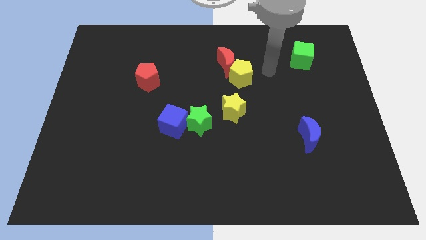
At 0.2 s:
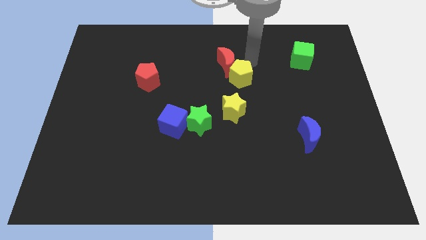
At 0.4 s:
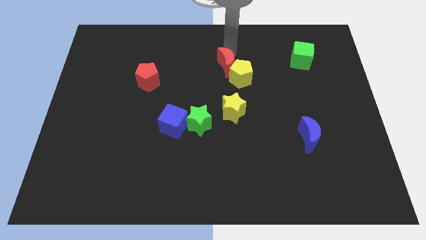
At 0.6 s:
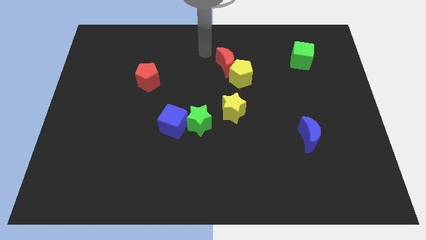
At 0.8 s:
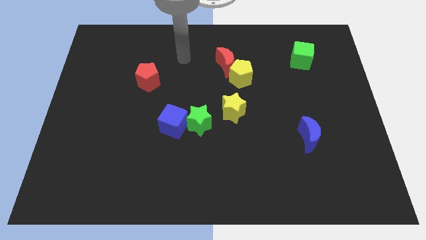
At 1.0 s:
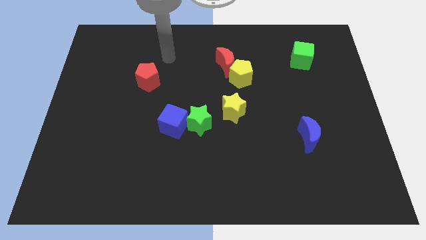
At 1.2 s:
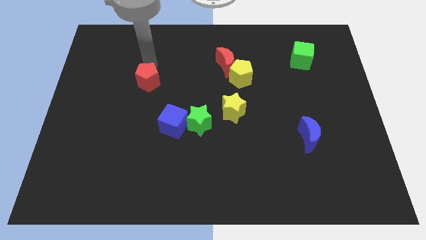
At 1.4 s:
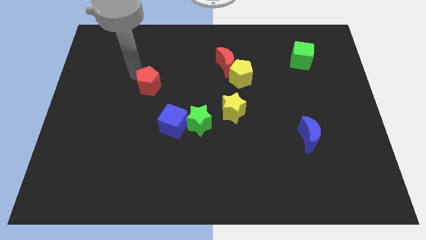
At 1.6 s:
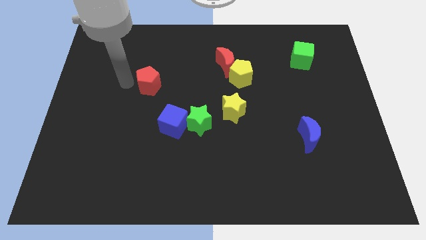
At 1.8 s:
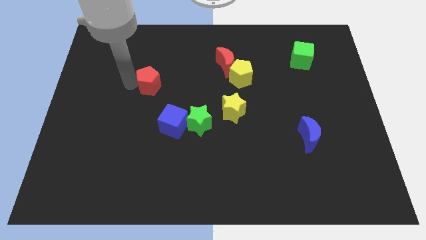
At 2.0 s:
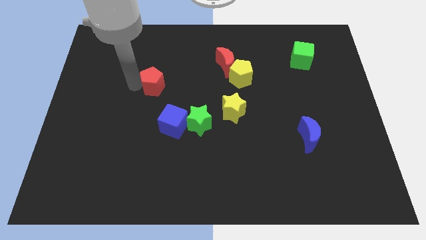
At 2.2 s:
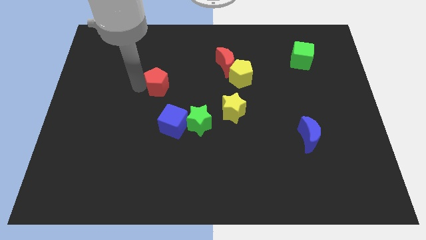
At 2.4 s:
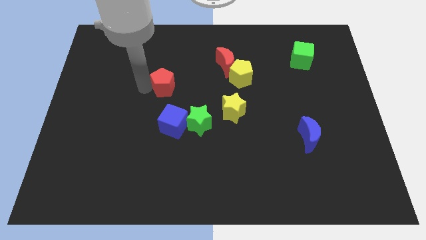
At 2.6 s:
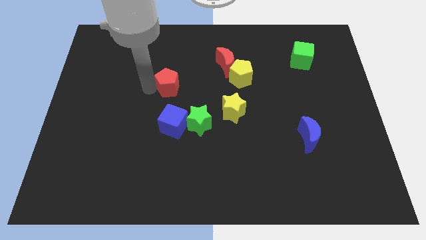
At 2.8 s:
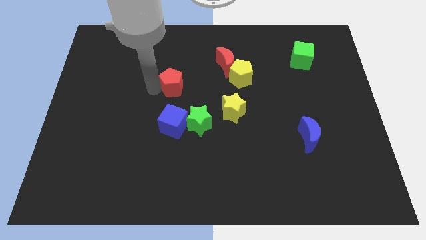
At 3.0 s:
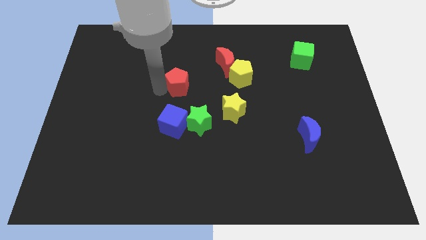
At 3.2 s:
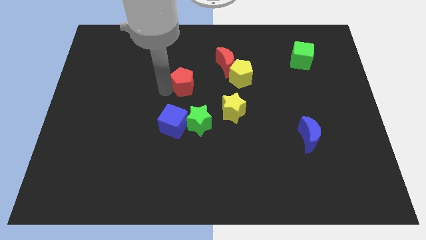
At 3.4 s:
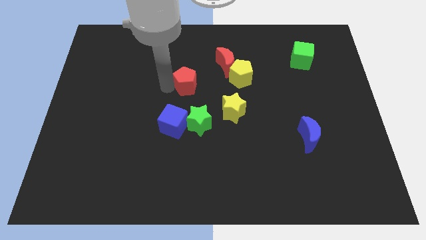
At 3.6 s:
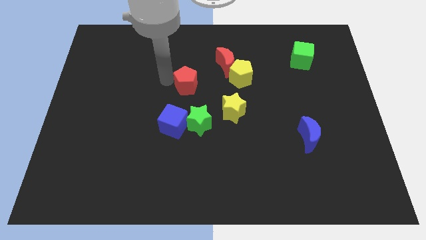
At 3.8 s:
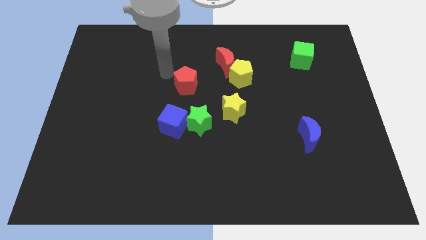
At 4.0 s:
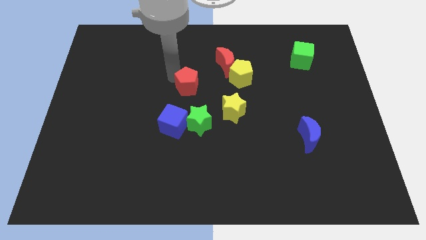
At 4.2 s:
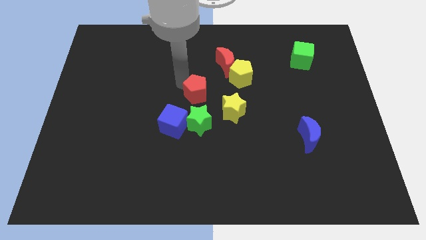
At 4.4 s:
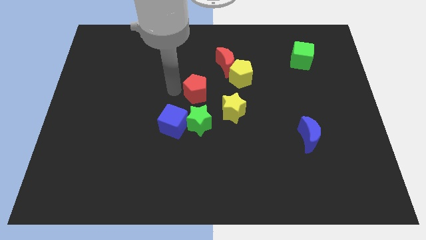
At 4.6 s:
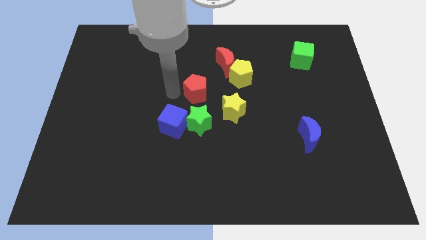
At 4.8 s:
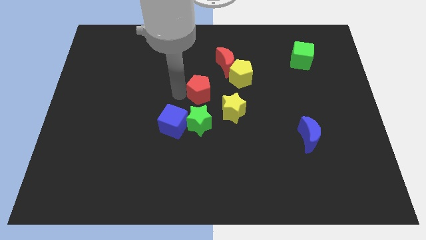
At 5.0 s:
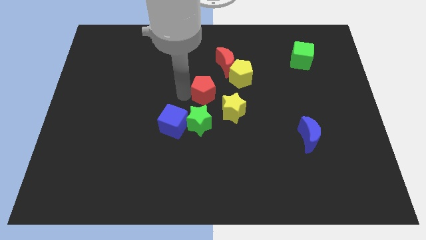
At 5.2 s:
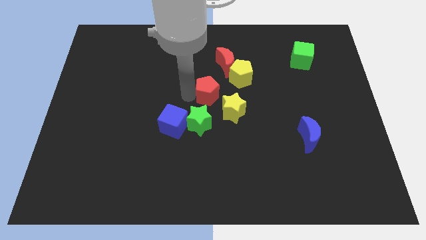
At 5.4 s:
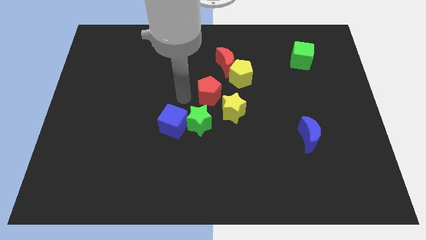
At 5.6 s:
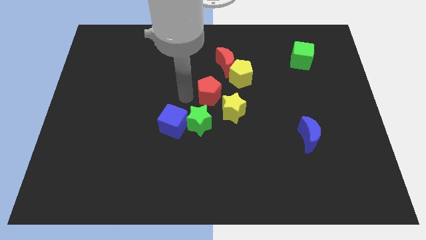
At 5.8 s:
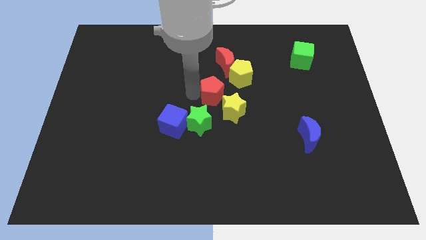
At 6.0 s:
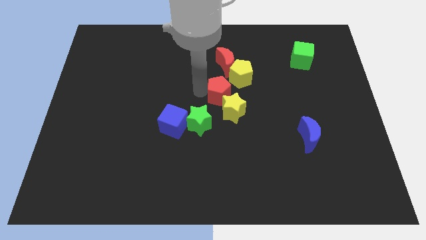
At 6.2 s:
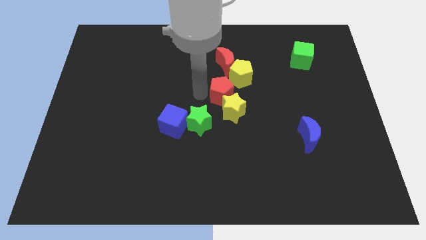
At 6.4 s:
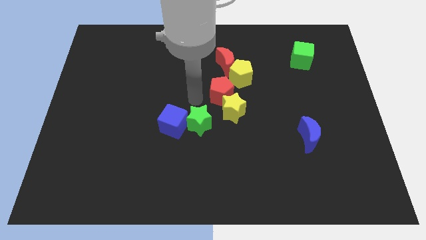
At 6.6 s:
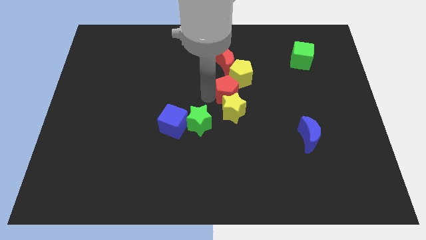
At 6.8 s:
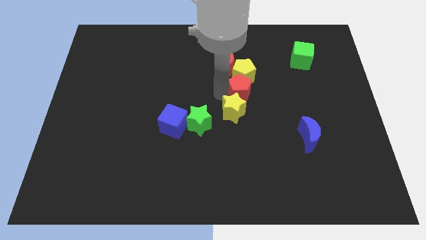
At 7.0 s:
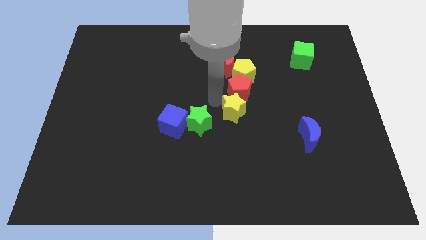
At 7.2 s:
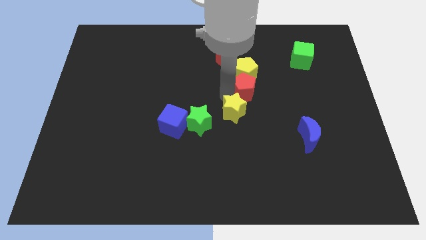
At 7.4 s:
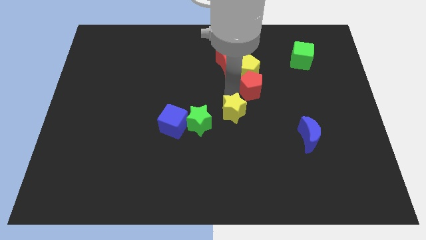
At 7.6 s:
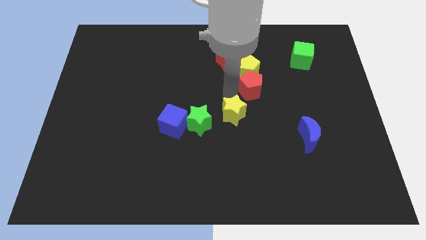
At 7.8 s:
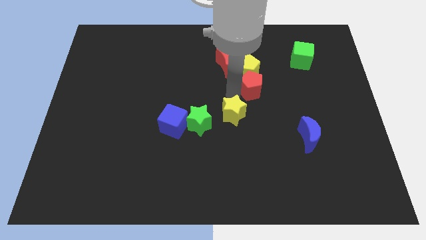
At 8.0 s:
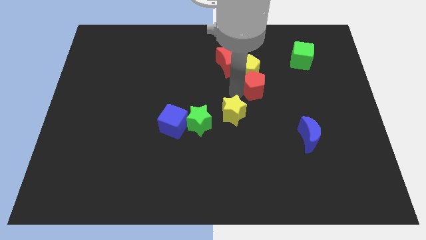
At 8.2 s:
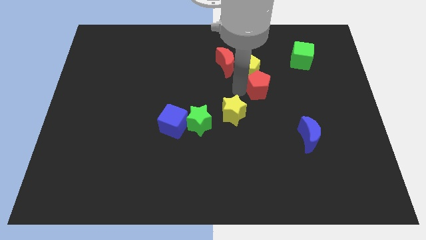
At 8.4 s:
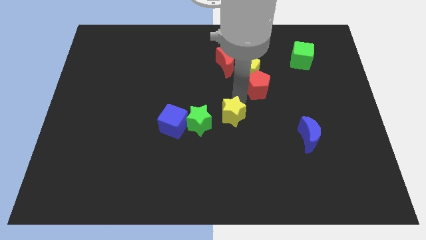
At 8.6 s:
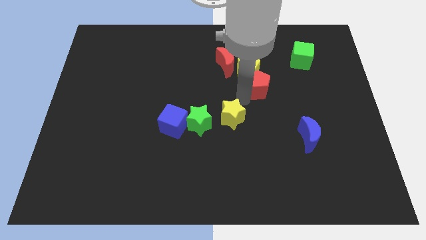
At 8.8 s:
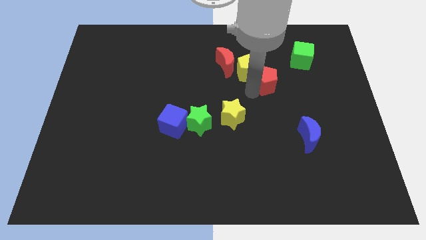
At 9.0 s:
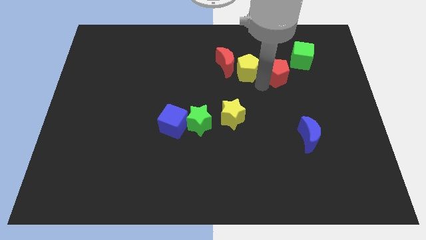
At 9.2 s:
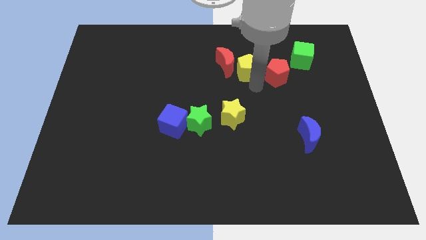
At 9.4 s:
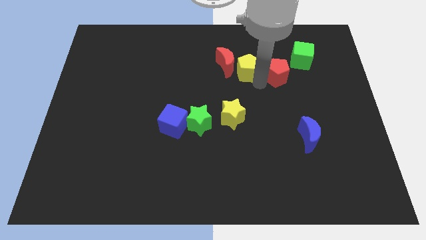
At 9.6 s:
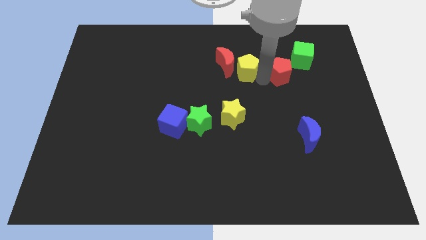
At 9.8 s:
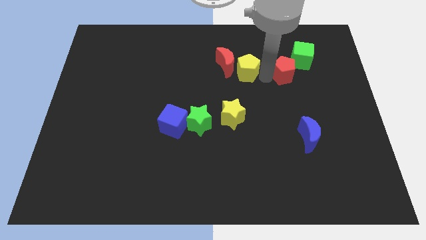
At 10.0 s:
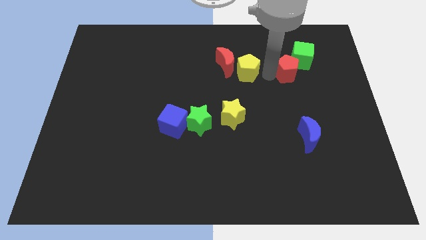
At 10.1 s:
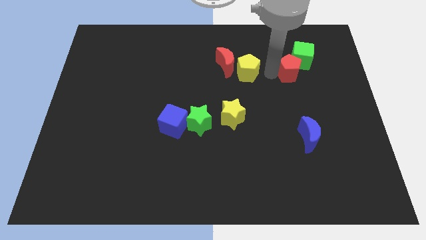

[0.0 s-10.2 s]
slide the red pentagon next to the green cube

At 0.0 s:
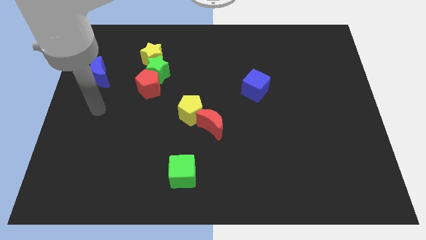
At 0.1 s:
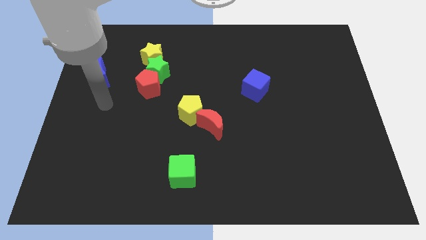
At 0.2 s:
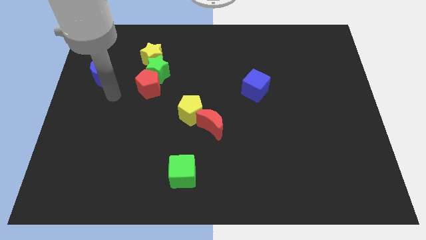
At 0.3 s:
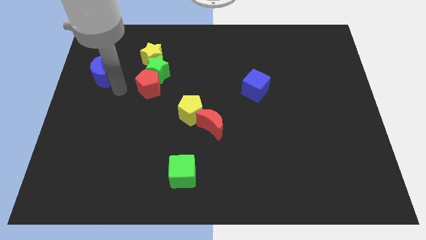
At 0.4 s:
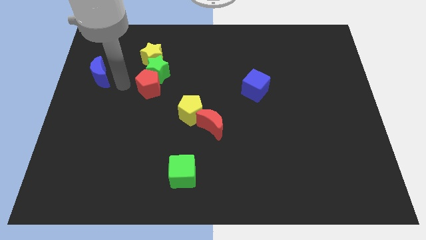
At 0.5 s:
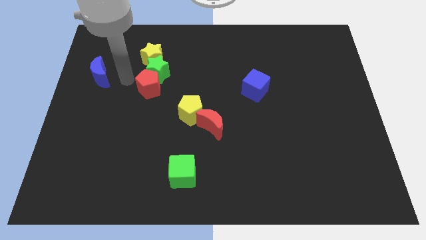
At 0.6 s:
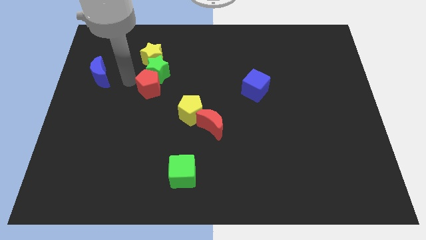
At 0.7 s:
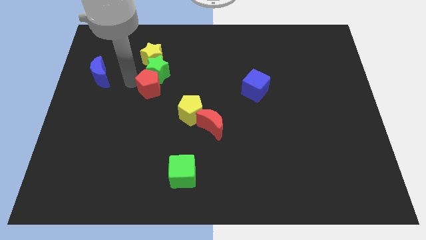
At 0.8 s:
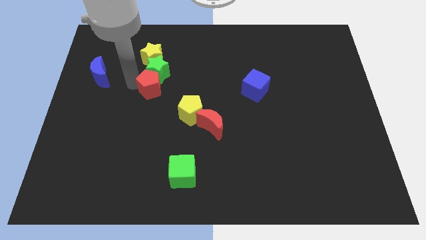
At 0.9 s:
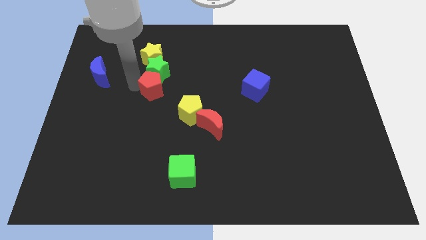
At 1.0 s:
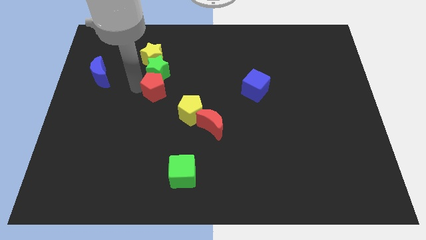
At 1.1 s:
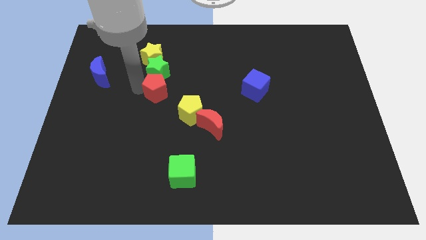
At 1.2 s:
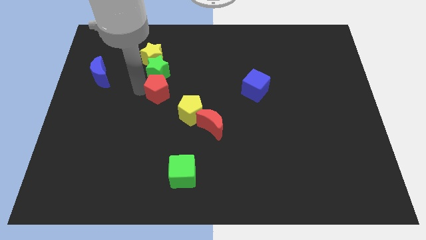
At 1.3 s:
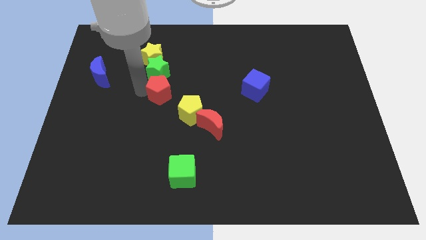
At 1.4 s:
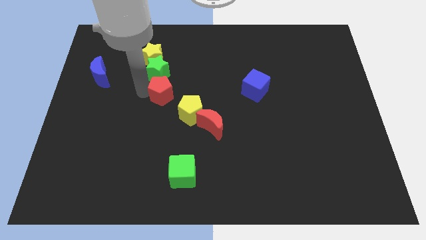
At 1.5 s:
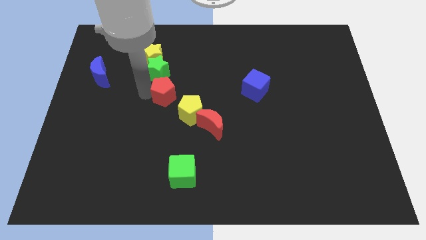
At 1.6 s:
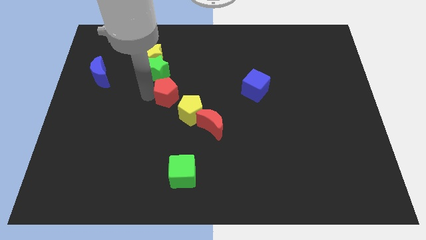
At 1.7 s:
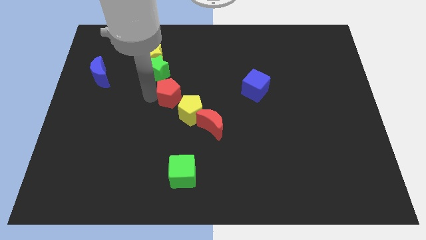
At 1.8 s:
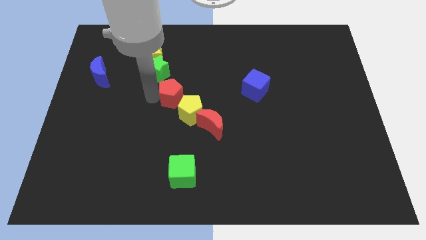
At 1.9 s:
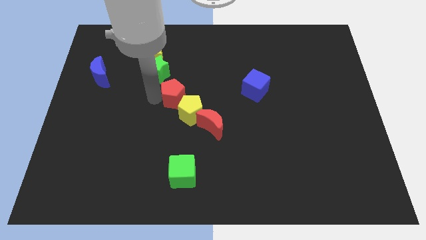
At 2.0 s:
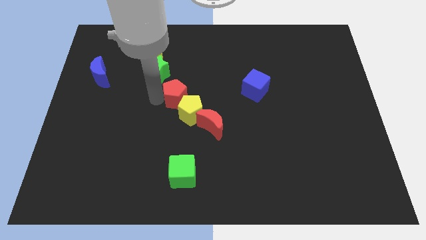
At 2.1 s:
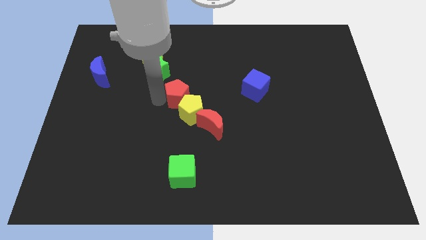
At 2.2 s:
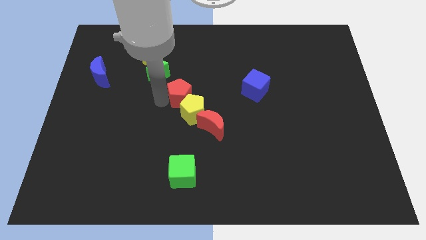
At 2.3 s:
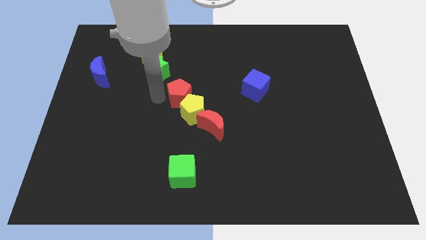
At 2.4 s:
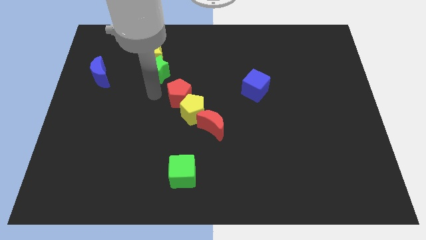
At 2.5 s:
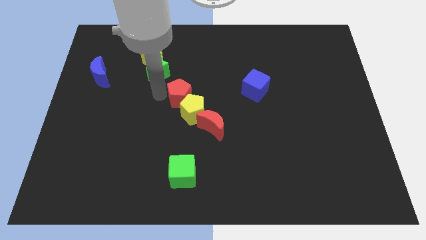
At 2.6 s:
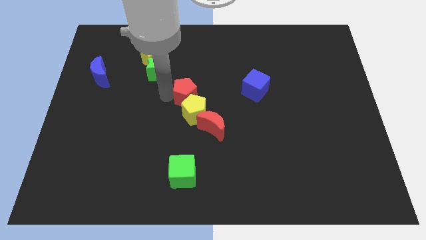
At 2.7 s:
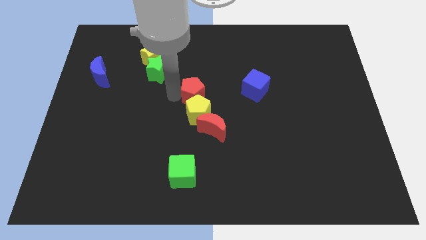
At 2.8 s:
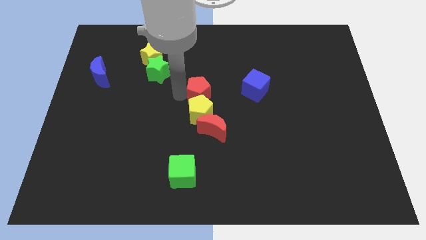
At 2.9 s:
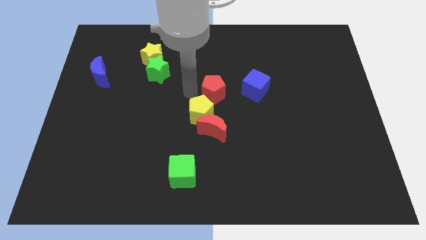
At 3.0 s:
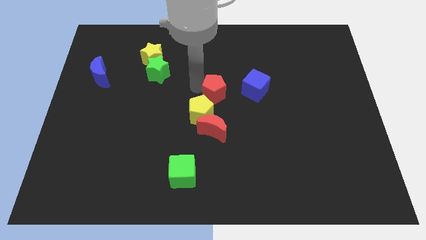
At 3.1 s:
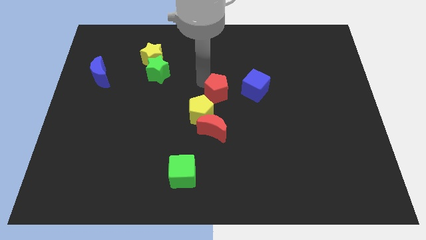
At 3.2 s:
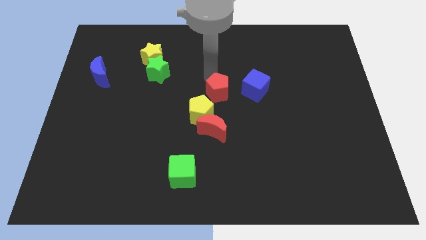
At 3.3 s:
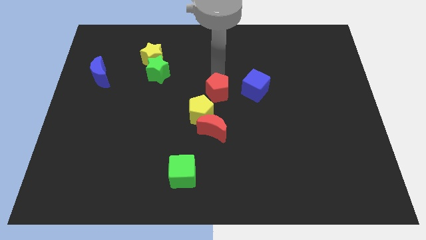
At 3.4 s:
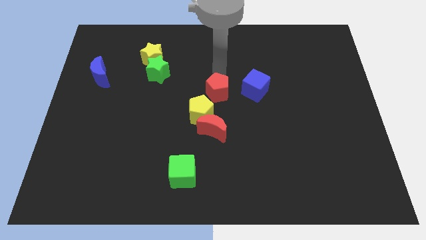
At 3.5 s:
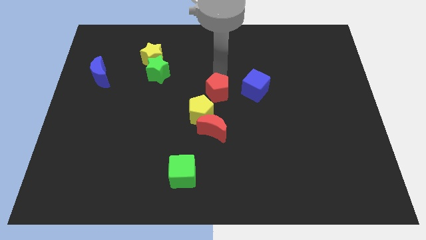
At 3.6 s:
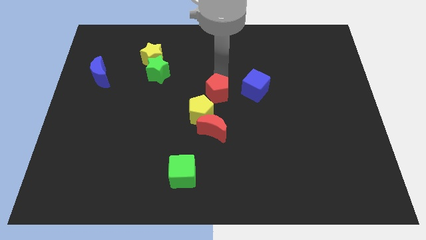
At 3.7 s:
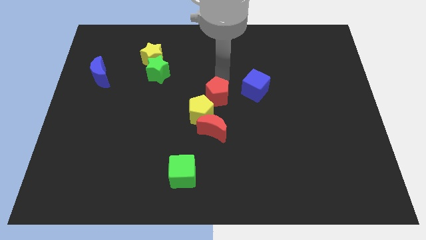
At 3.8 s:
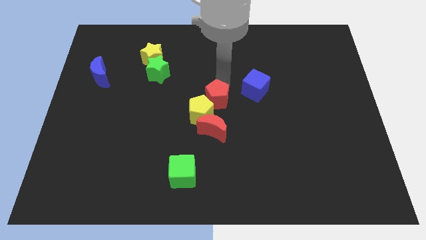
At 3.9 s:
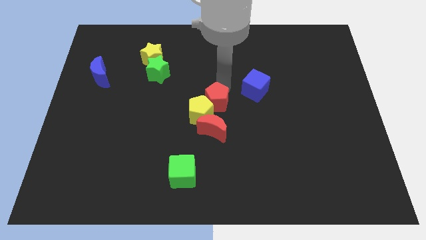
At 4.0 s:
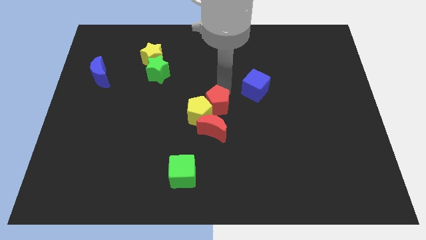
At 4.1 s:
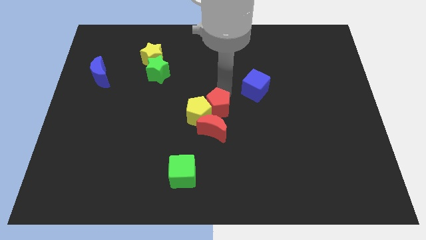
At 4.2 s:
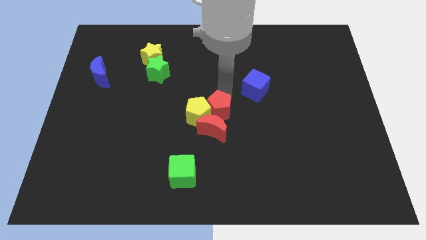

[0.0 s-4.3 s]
slide the red pentagon next to the red moon
